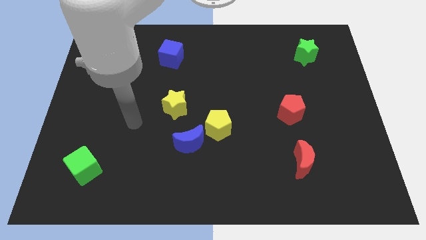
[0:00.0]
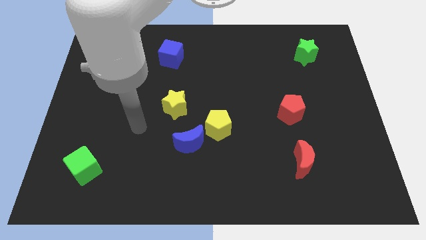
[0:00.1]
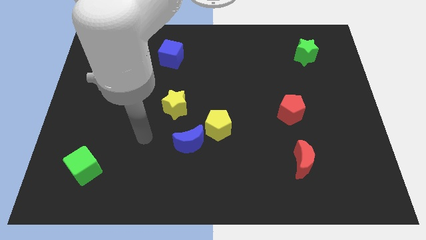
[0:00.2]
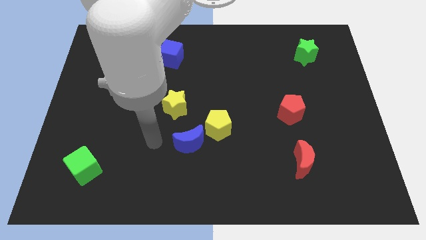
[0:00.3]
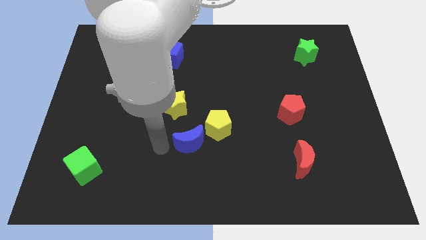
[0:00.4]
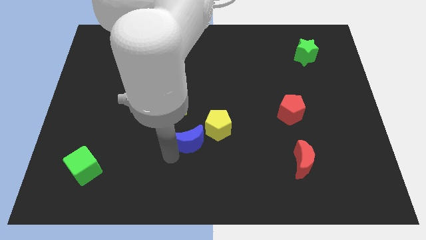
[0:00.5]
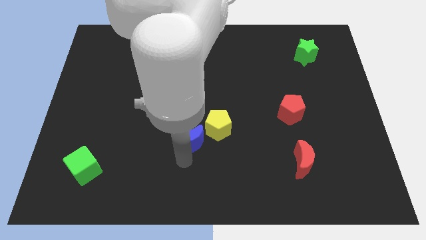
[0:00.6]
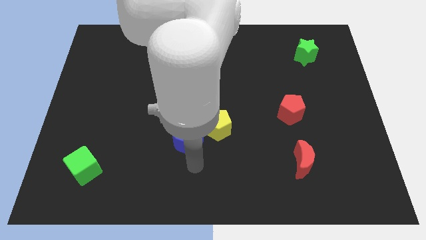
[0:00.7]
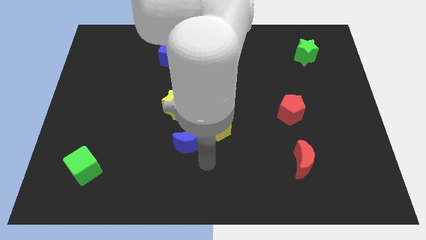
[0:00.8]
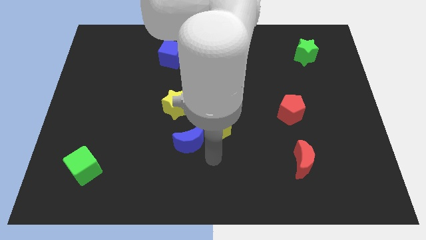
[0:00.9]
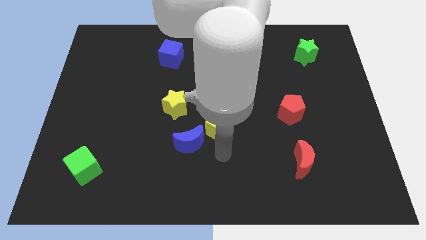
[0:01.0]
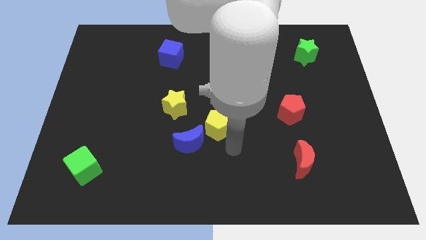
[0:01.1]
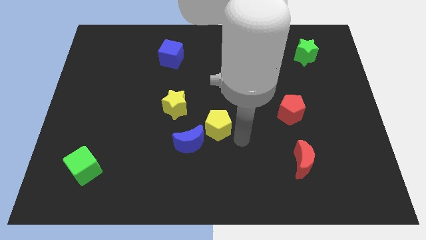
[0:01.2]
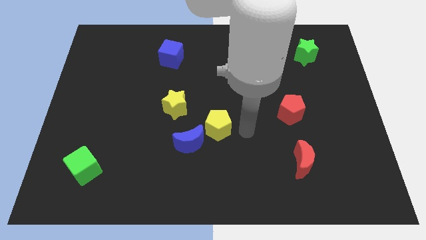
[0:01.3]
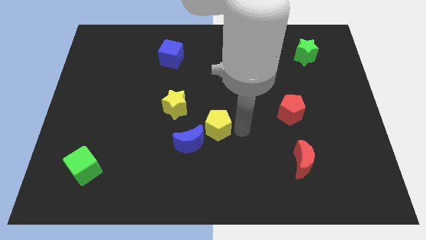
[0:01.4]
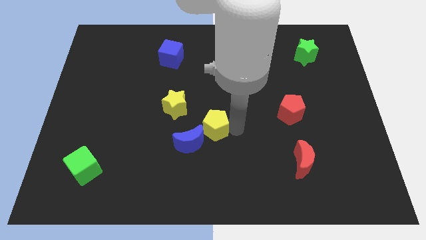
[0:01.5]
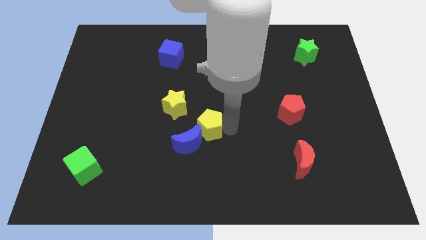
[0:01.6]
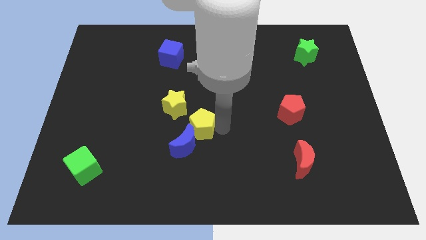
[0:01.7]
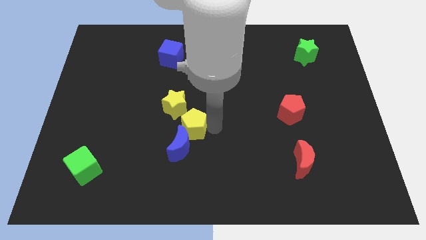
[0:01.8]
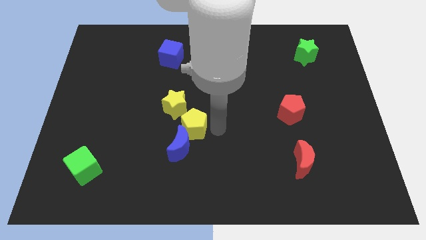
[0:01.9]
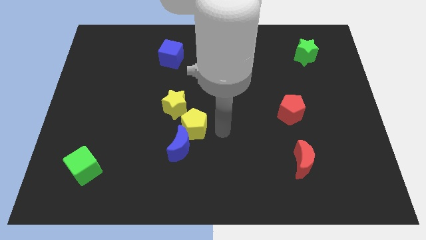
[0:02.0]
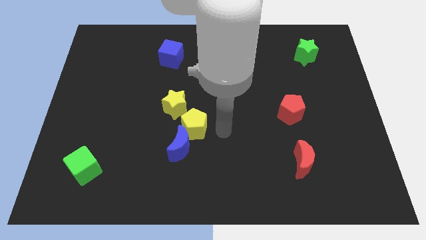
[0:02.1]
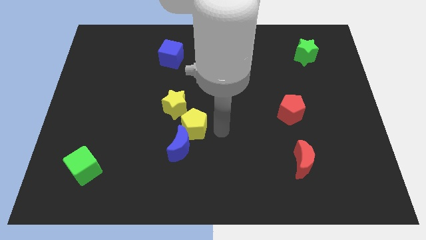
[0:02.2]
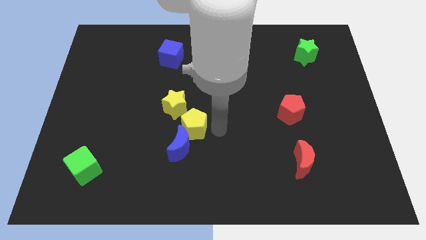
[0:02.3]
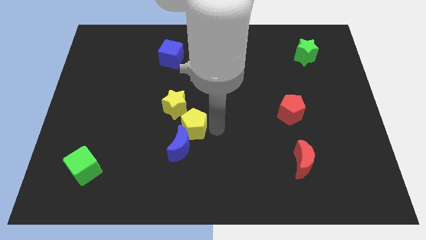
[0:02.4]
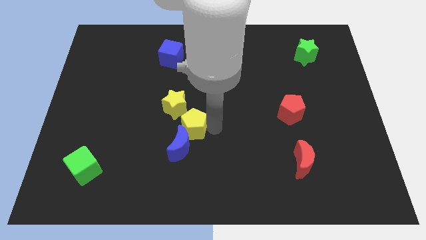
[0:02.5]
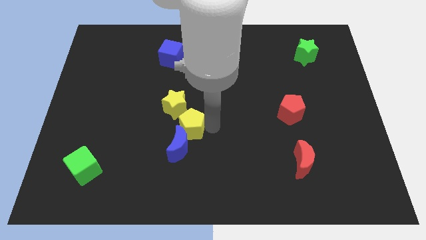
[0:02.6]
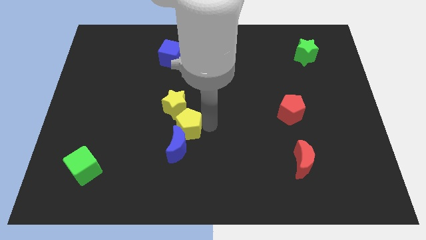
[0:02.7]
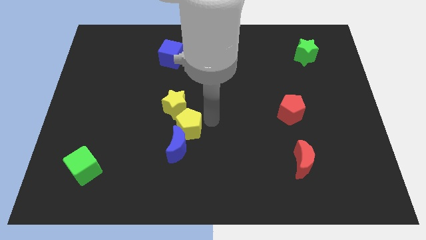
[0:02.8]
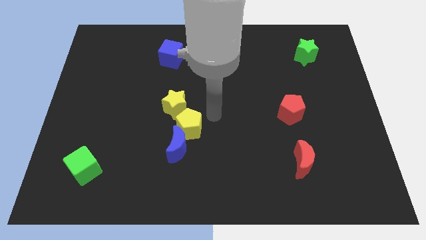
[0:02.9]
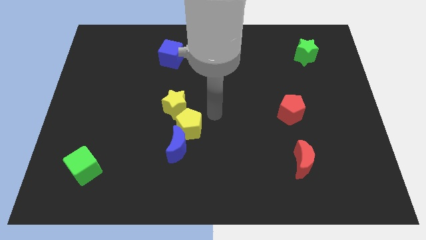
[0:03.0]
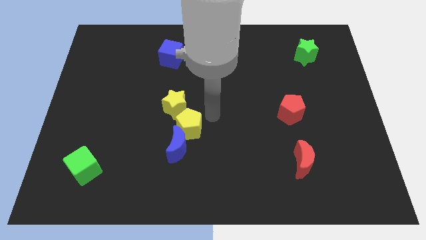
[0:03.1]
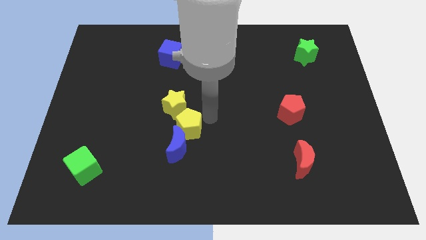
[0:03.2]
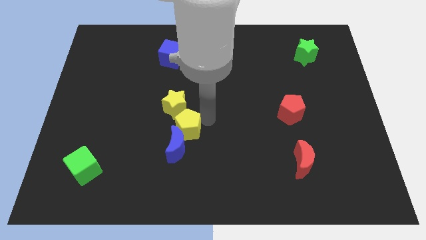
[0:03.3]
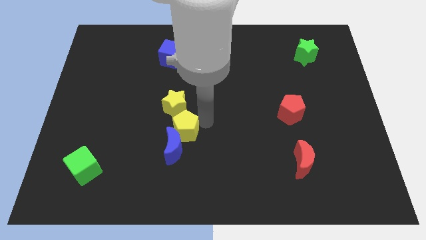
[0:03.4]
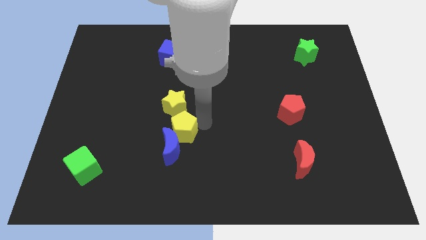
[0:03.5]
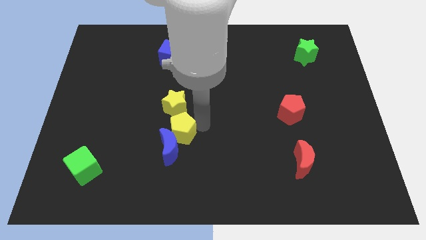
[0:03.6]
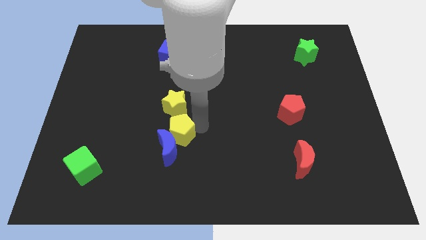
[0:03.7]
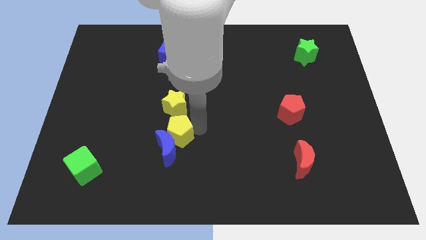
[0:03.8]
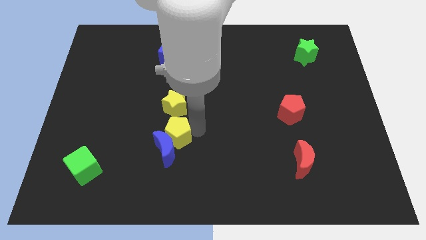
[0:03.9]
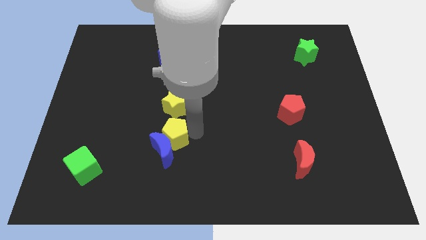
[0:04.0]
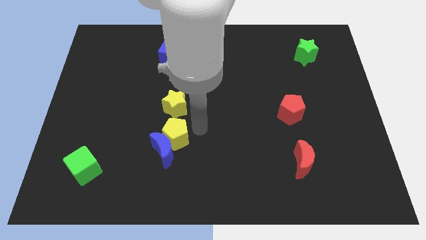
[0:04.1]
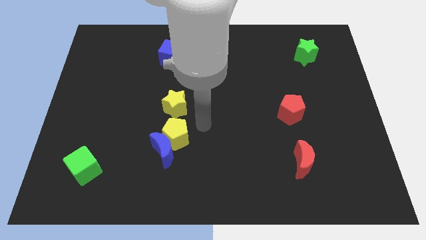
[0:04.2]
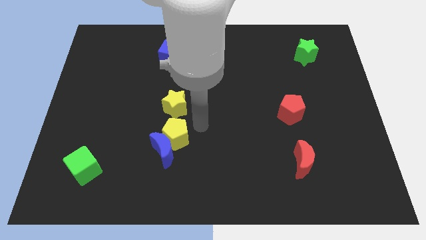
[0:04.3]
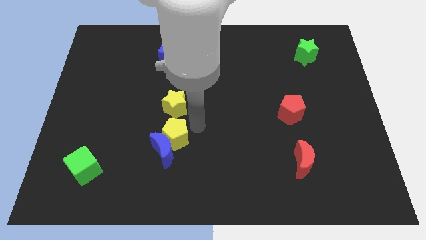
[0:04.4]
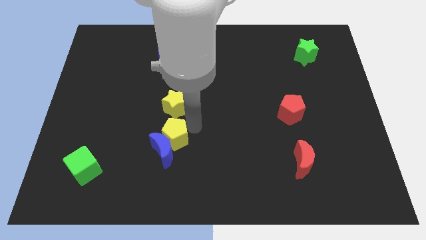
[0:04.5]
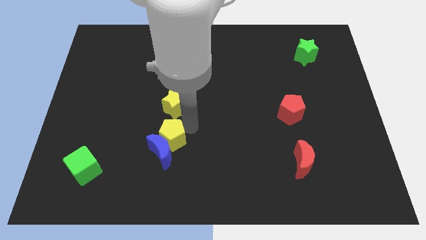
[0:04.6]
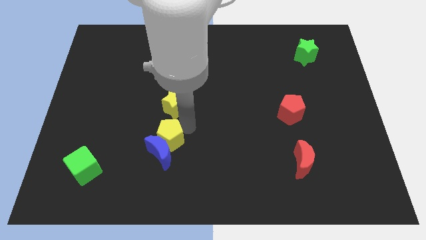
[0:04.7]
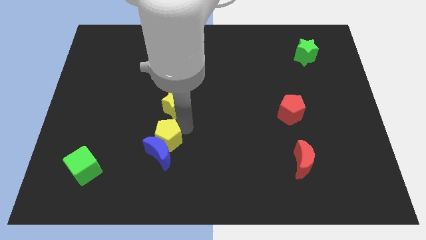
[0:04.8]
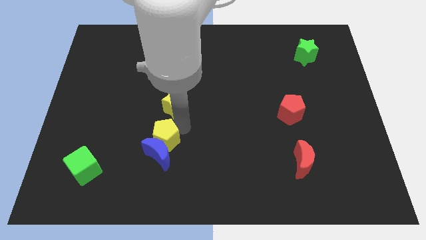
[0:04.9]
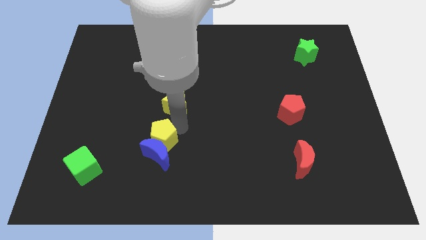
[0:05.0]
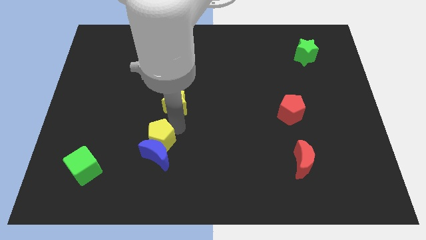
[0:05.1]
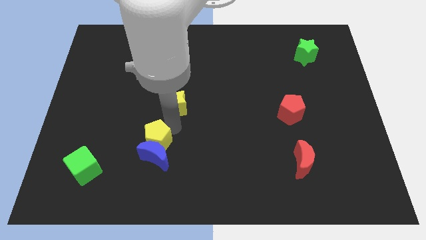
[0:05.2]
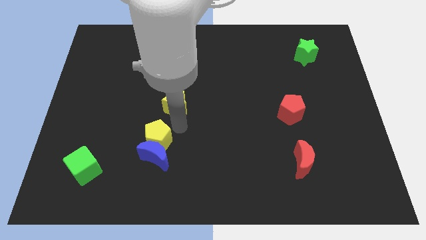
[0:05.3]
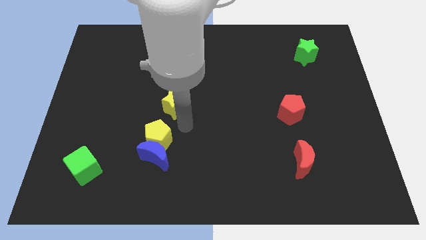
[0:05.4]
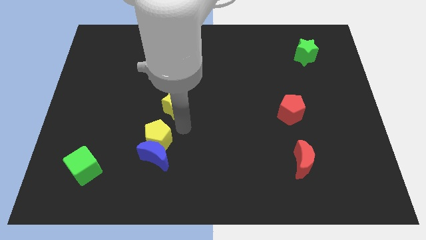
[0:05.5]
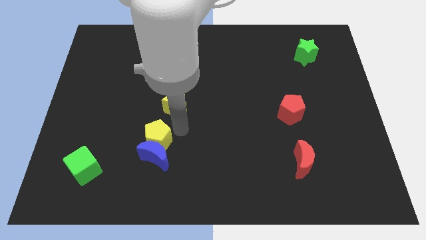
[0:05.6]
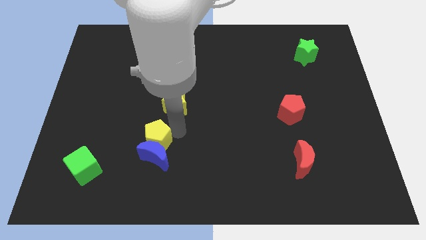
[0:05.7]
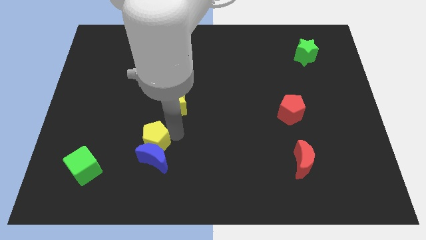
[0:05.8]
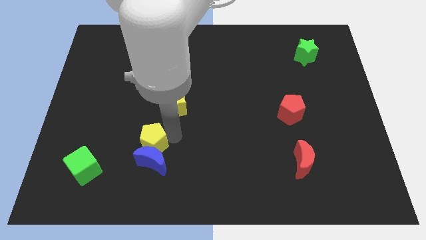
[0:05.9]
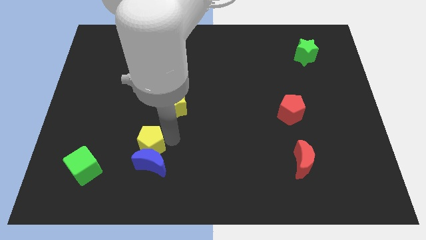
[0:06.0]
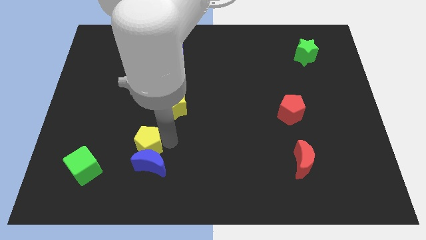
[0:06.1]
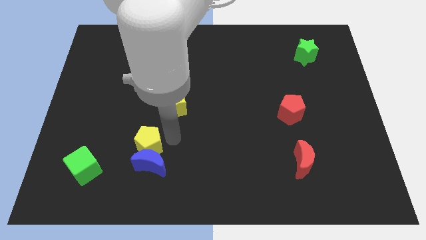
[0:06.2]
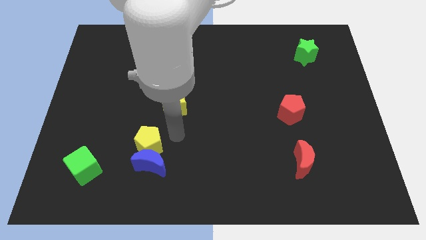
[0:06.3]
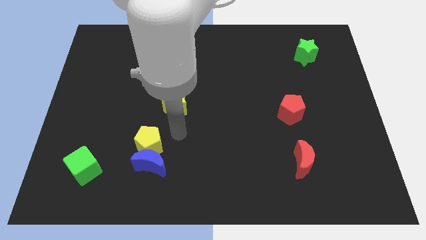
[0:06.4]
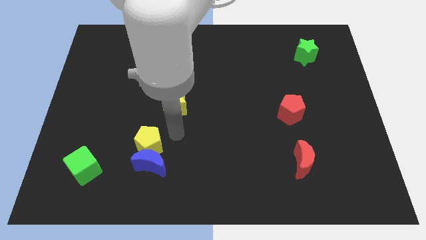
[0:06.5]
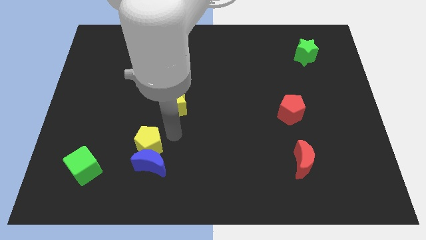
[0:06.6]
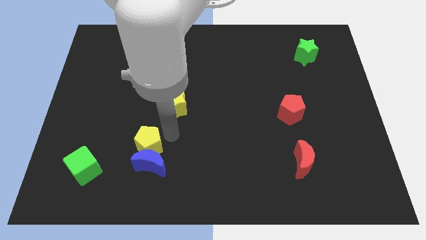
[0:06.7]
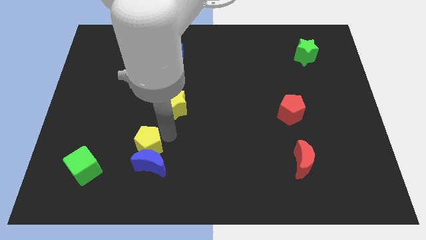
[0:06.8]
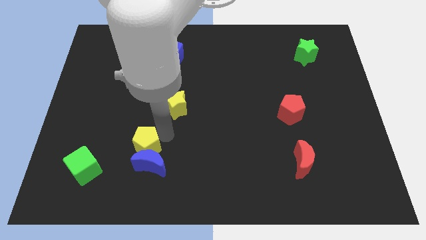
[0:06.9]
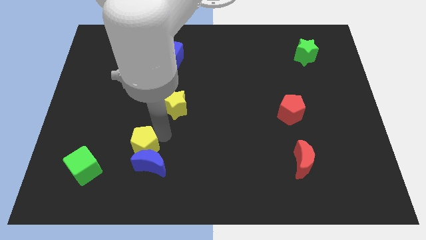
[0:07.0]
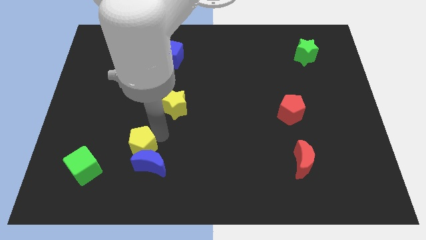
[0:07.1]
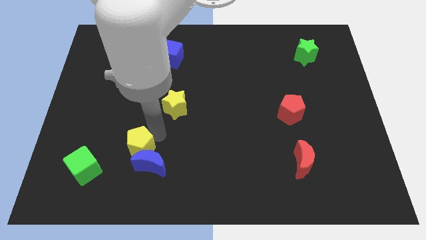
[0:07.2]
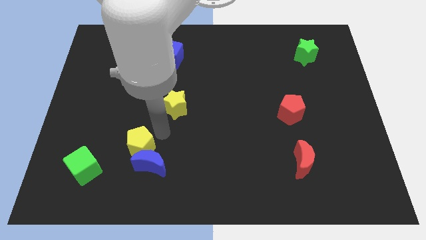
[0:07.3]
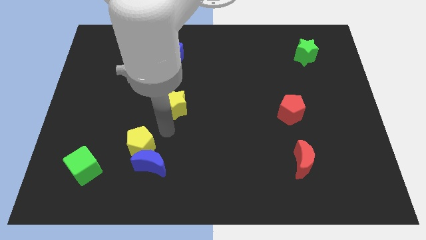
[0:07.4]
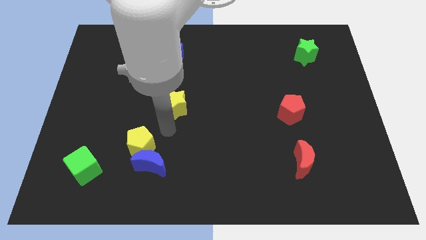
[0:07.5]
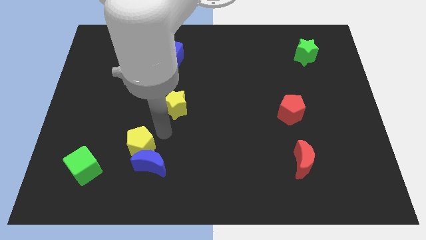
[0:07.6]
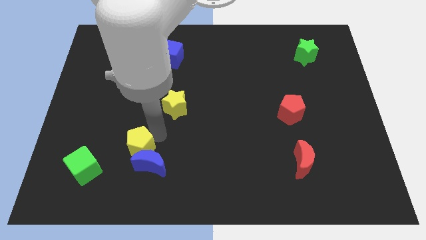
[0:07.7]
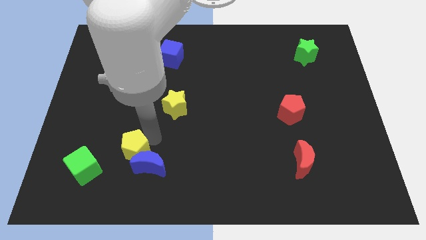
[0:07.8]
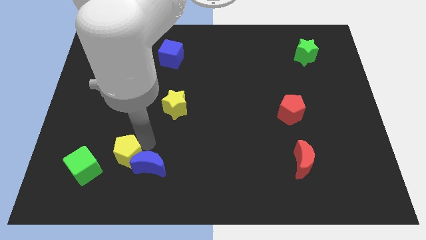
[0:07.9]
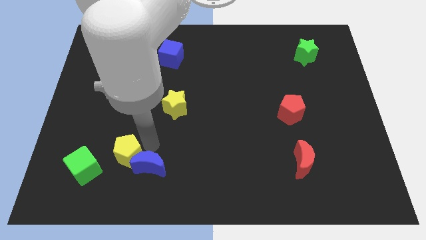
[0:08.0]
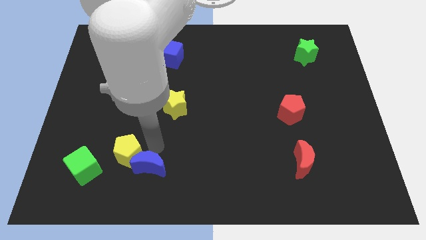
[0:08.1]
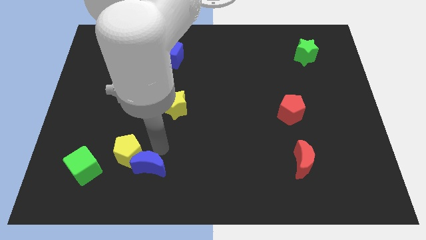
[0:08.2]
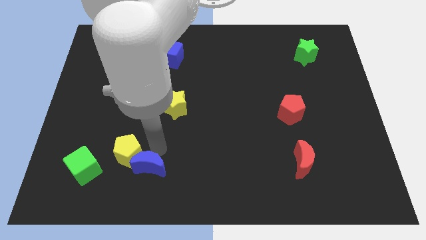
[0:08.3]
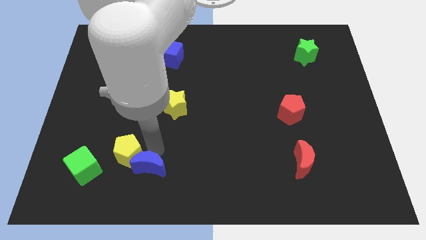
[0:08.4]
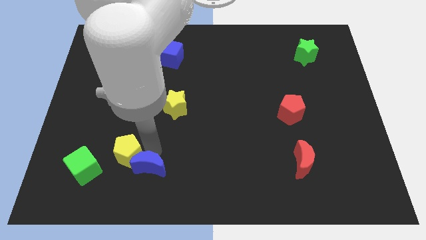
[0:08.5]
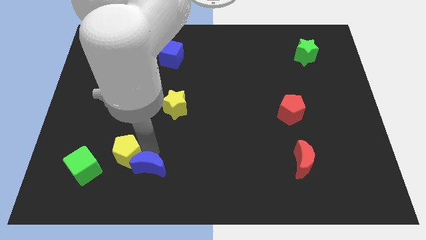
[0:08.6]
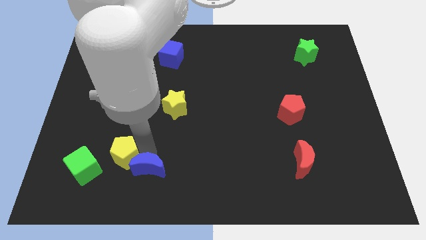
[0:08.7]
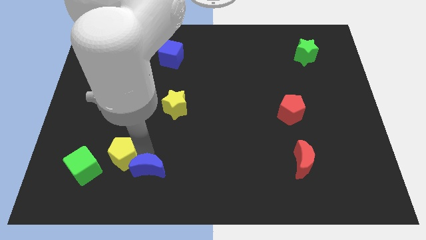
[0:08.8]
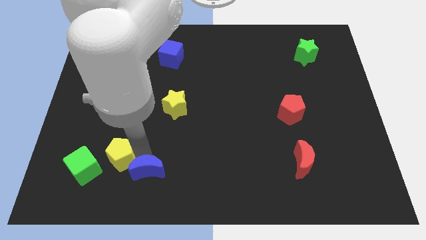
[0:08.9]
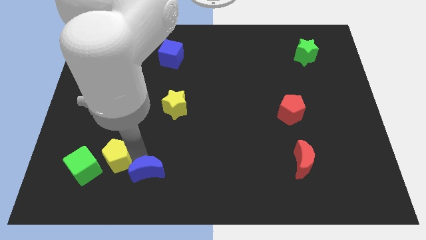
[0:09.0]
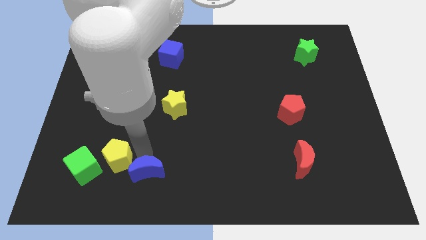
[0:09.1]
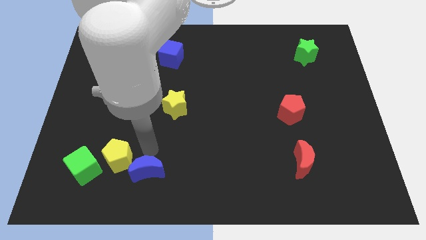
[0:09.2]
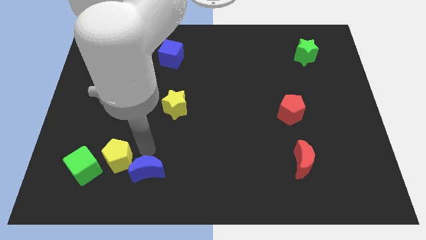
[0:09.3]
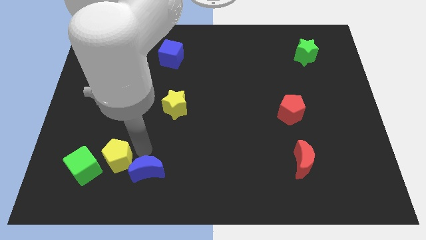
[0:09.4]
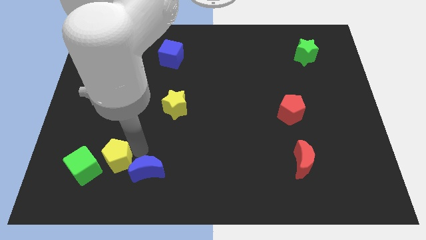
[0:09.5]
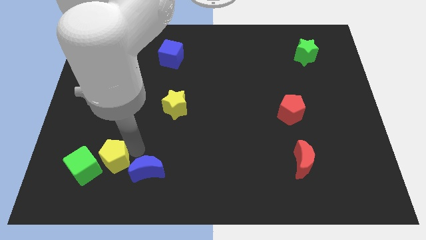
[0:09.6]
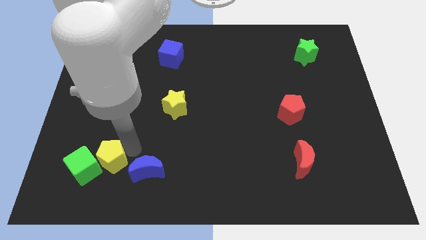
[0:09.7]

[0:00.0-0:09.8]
move the yellow pentagon to the green cube
